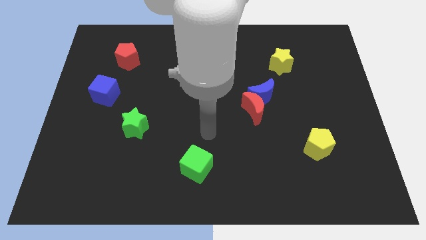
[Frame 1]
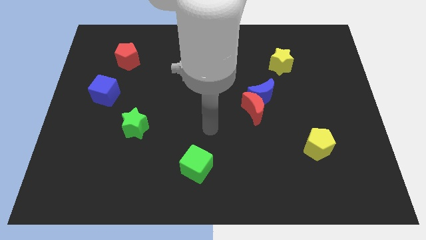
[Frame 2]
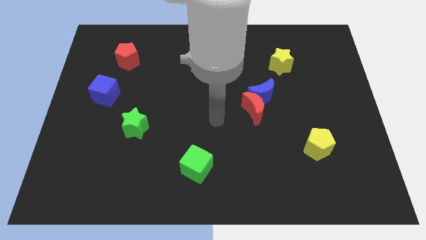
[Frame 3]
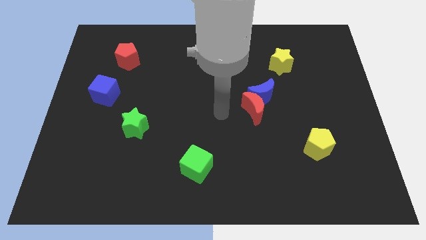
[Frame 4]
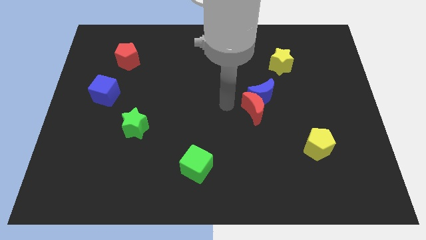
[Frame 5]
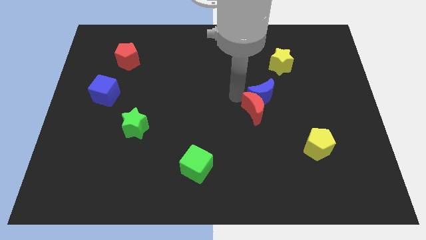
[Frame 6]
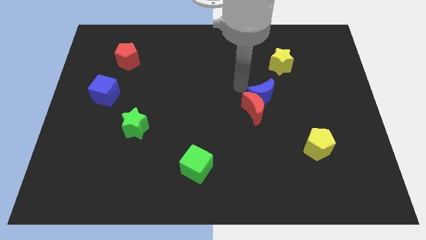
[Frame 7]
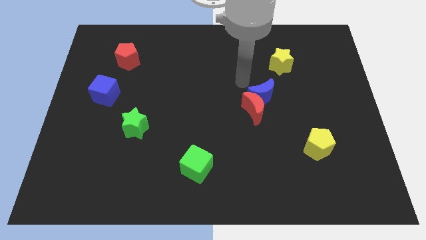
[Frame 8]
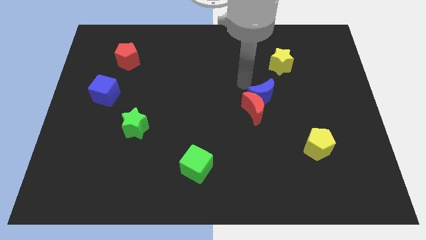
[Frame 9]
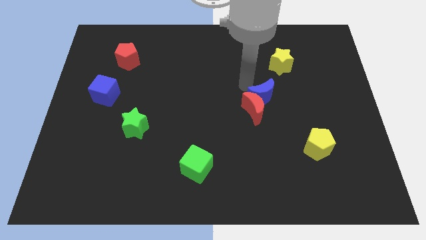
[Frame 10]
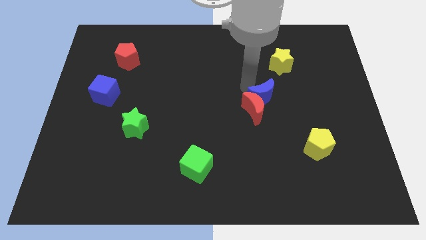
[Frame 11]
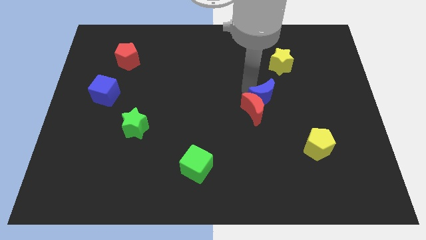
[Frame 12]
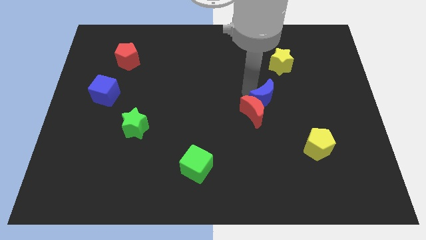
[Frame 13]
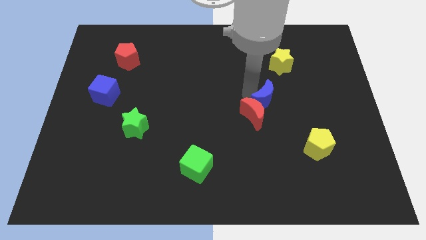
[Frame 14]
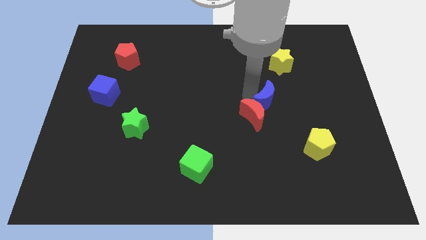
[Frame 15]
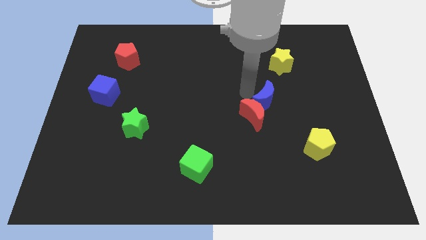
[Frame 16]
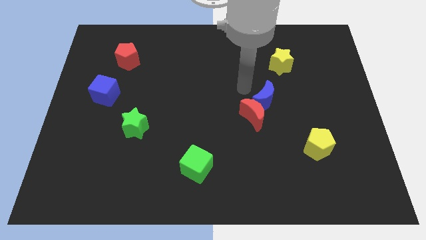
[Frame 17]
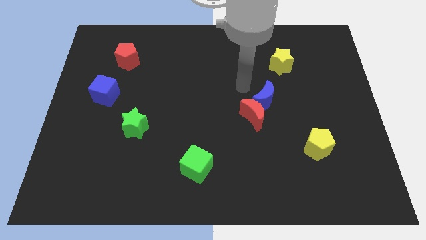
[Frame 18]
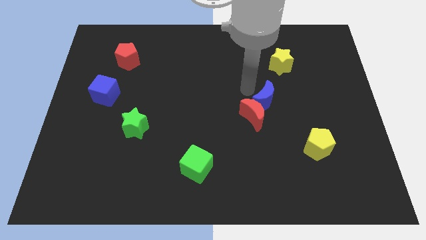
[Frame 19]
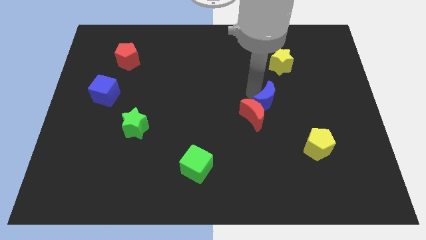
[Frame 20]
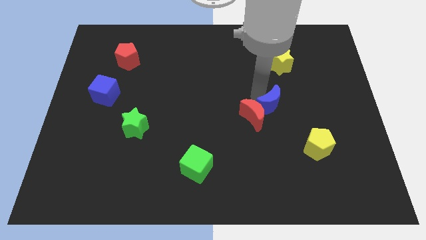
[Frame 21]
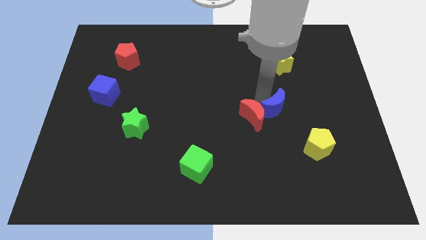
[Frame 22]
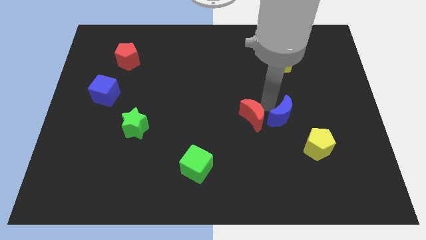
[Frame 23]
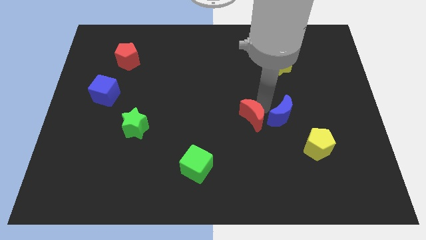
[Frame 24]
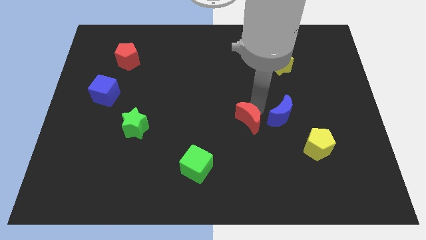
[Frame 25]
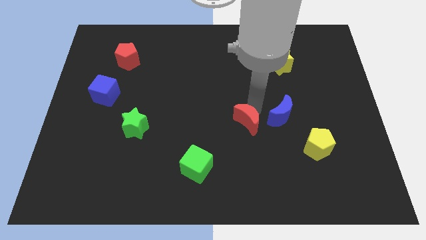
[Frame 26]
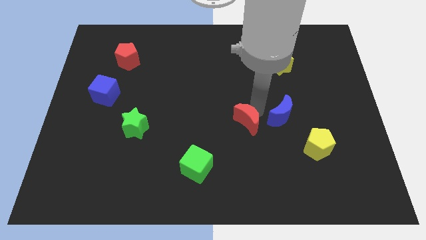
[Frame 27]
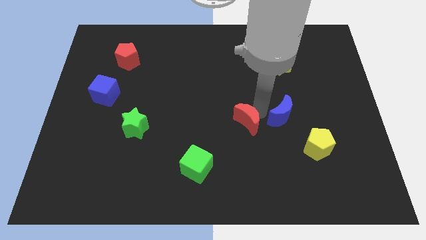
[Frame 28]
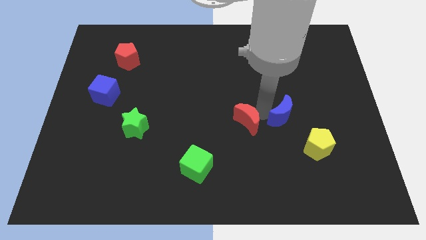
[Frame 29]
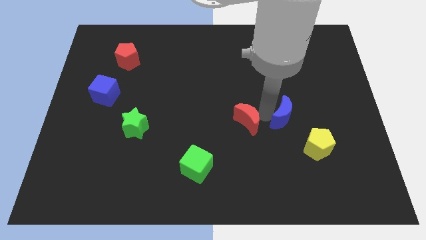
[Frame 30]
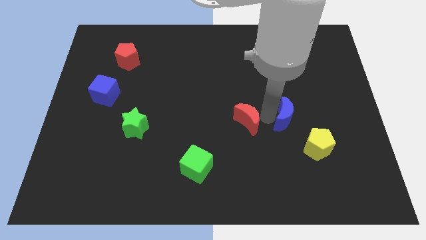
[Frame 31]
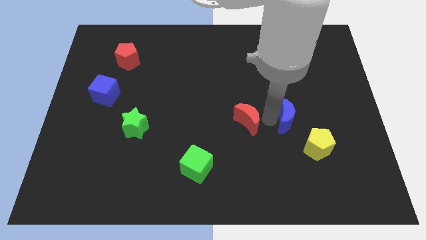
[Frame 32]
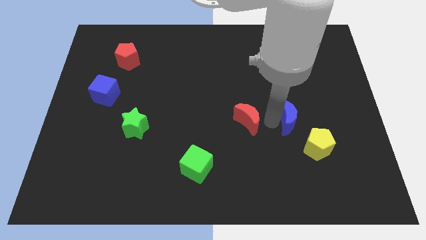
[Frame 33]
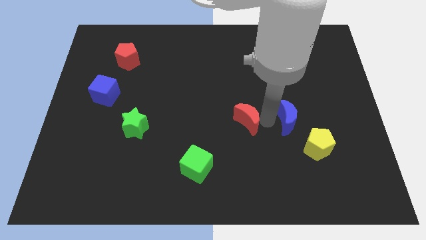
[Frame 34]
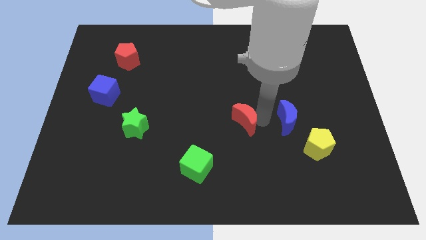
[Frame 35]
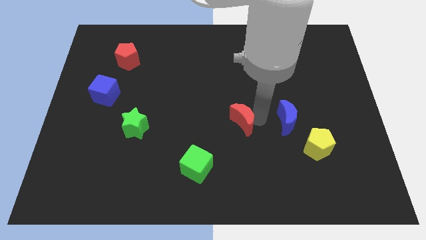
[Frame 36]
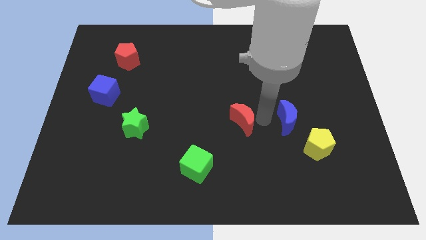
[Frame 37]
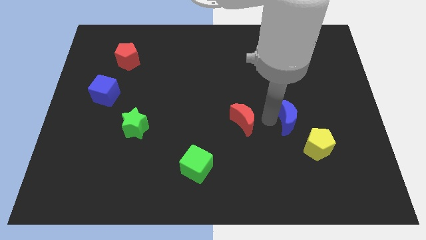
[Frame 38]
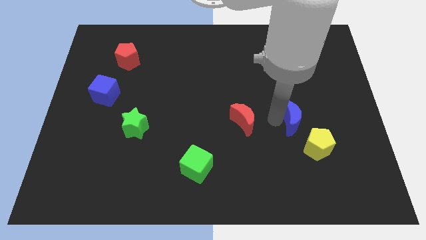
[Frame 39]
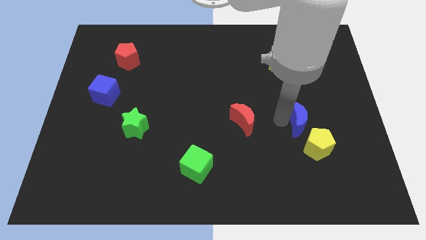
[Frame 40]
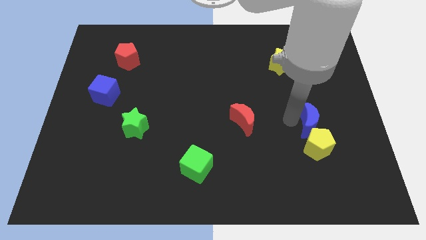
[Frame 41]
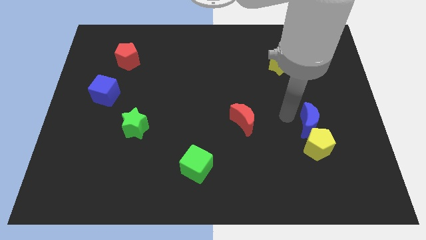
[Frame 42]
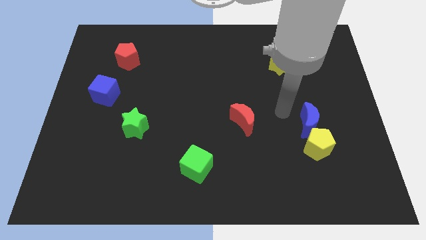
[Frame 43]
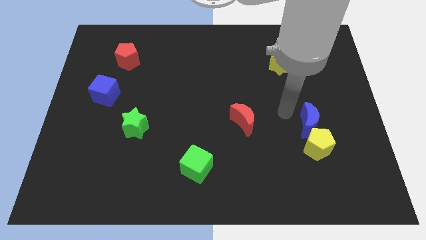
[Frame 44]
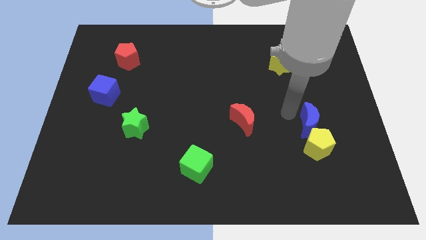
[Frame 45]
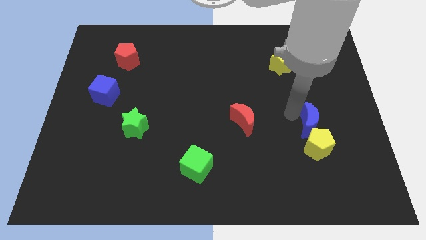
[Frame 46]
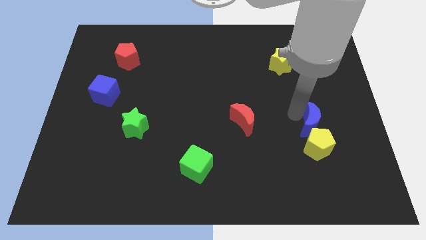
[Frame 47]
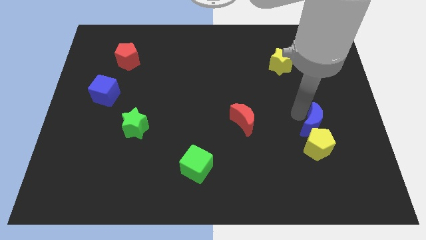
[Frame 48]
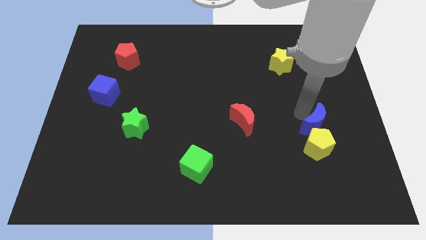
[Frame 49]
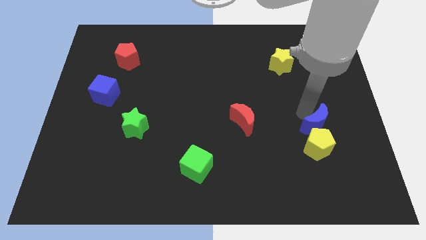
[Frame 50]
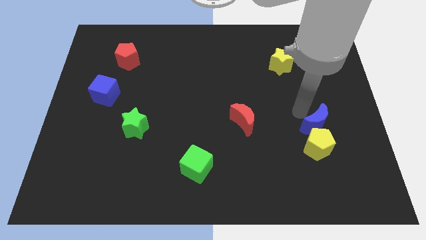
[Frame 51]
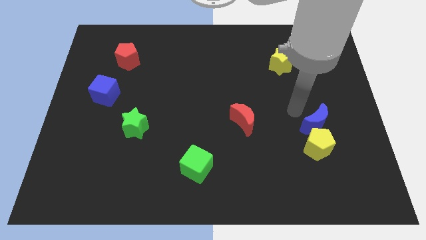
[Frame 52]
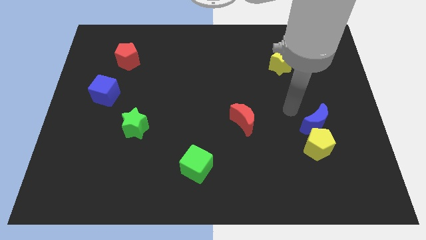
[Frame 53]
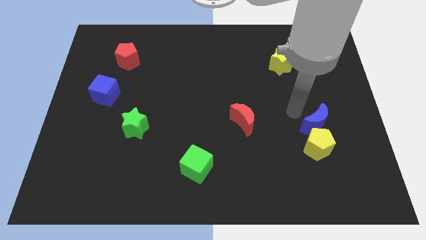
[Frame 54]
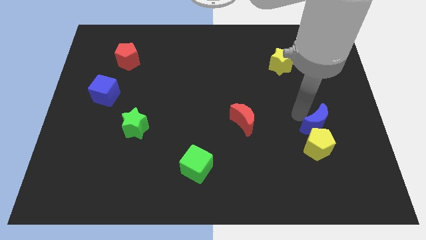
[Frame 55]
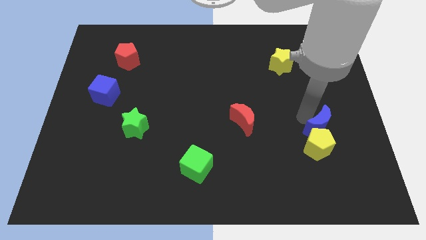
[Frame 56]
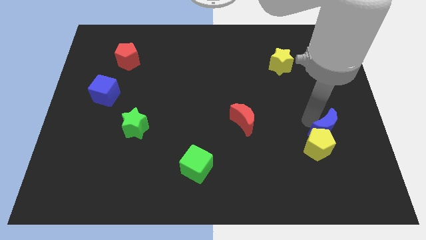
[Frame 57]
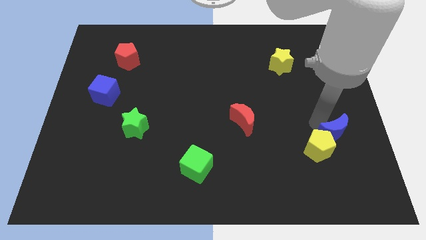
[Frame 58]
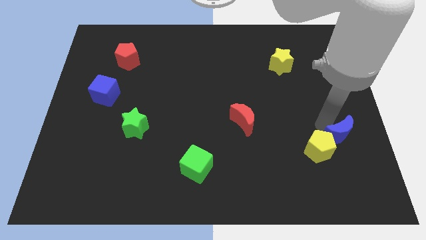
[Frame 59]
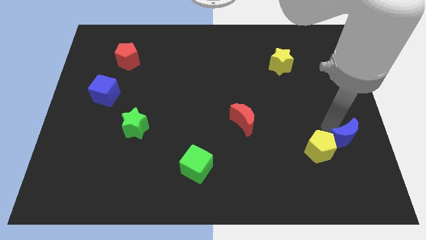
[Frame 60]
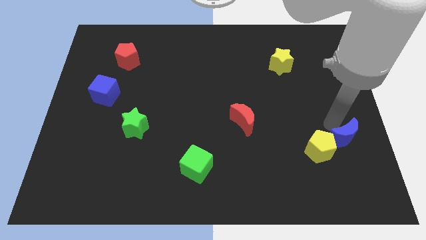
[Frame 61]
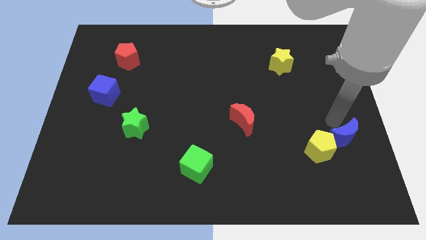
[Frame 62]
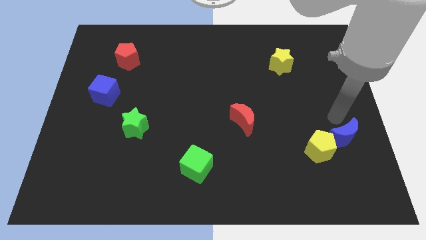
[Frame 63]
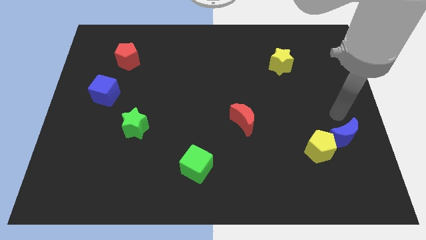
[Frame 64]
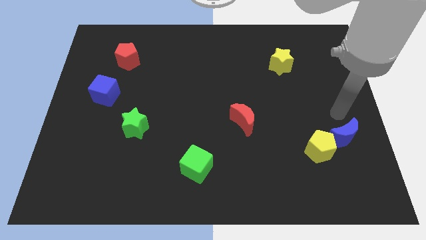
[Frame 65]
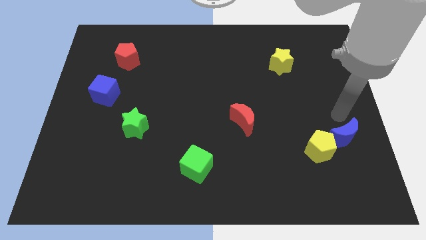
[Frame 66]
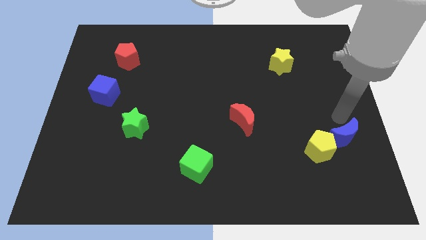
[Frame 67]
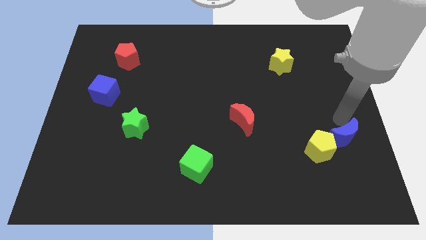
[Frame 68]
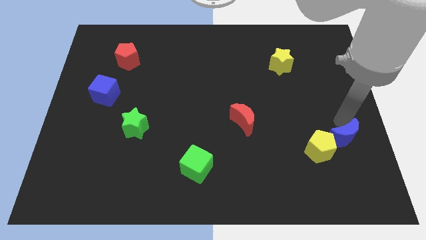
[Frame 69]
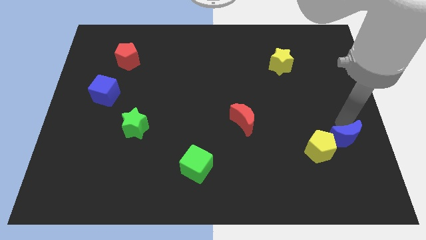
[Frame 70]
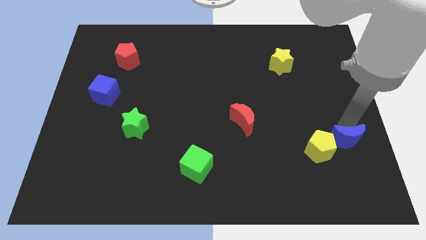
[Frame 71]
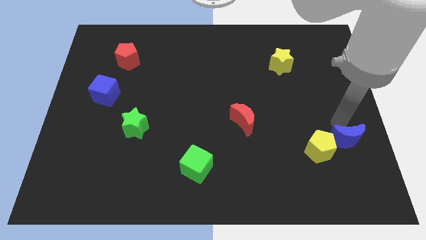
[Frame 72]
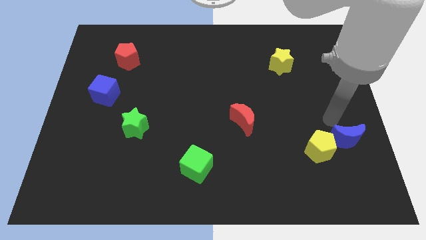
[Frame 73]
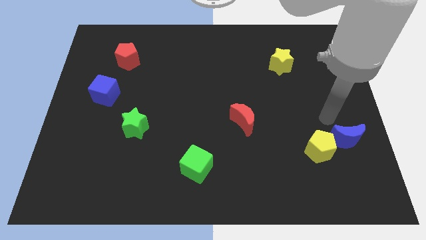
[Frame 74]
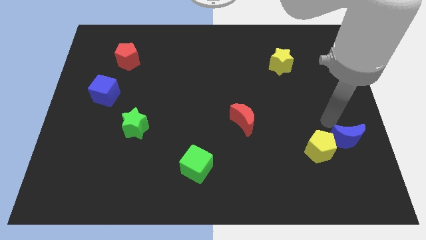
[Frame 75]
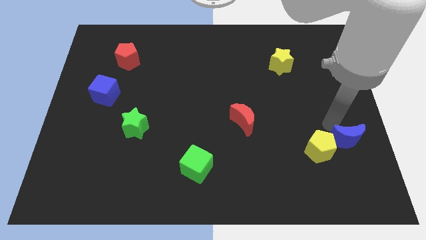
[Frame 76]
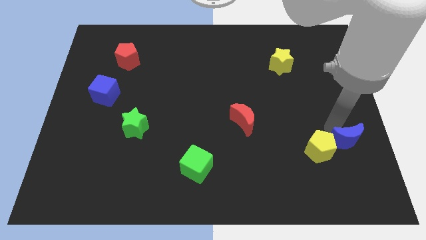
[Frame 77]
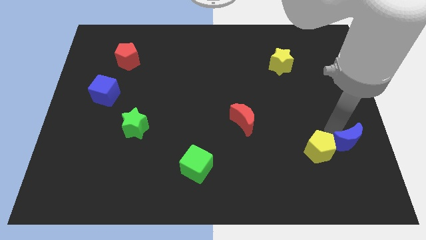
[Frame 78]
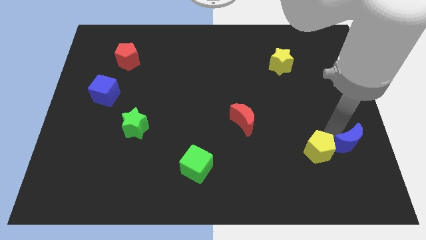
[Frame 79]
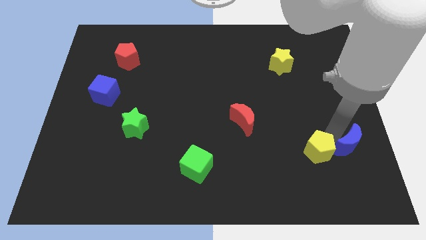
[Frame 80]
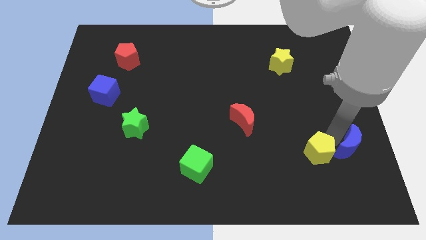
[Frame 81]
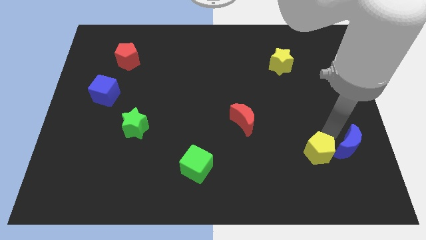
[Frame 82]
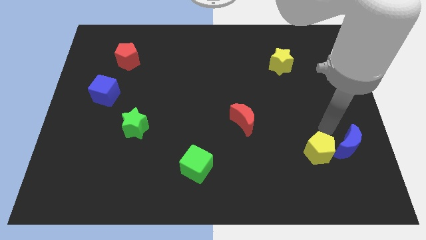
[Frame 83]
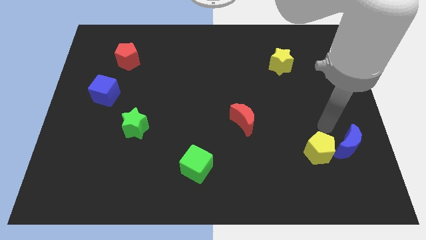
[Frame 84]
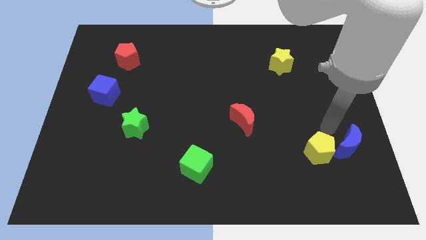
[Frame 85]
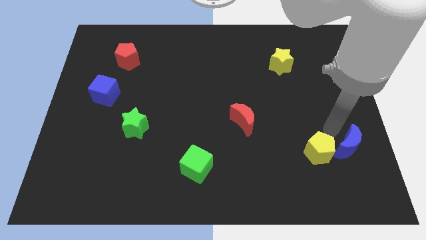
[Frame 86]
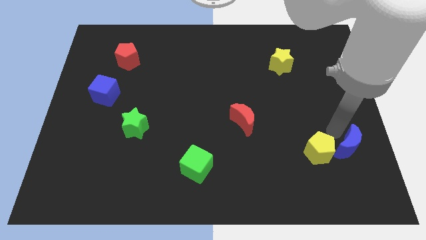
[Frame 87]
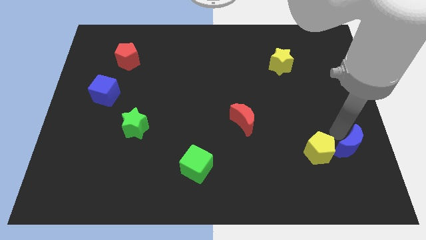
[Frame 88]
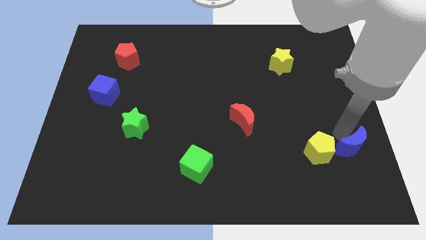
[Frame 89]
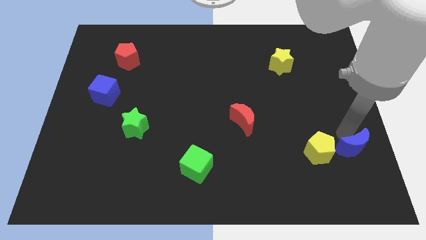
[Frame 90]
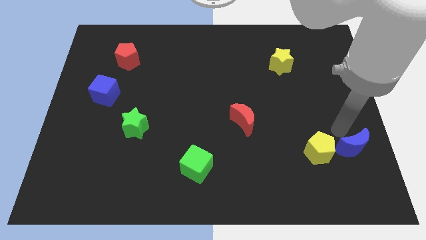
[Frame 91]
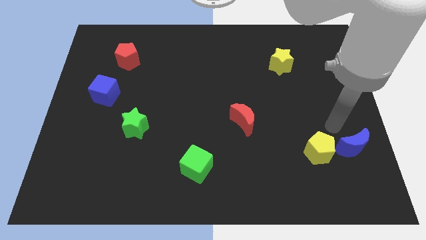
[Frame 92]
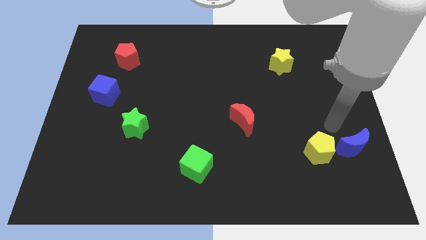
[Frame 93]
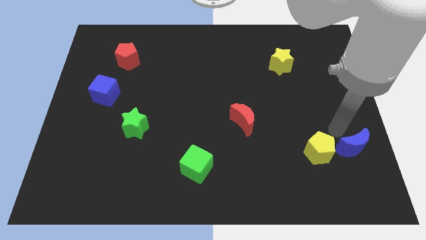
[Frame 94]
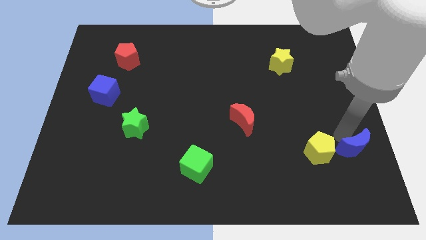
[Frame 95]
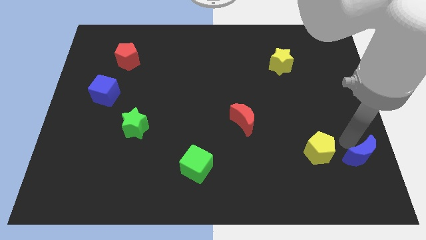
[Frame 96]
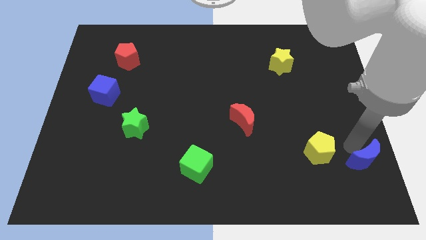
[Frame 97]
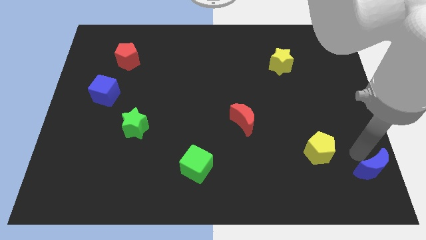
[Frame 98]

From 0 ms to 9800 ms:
move the blue moon to the bottom right of the board
